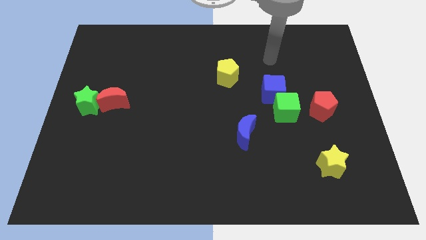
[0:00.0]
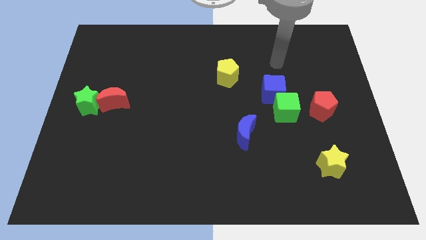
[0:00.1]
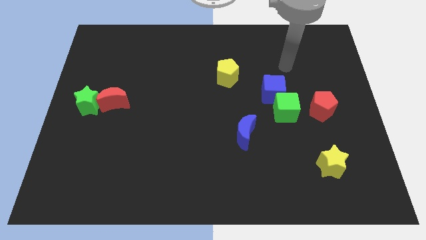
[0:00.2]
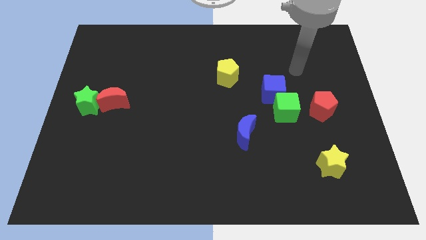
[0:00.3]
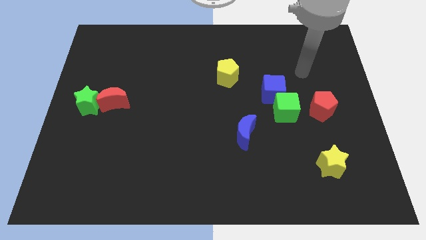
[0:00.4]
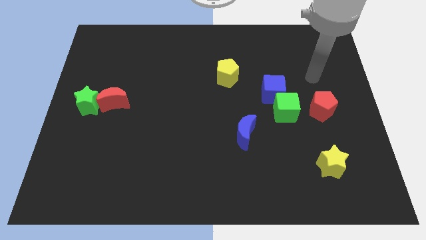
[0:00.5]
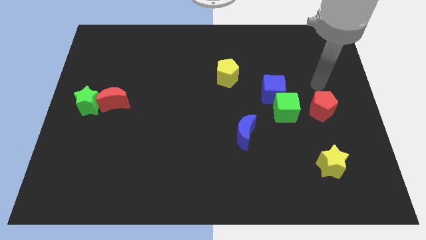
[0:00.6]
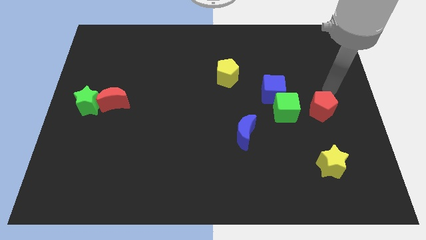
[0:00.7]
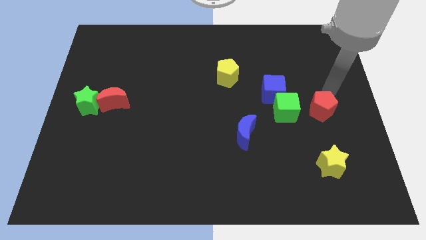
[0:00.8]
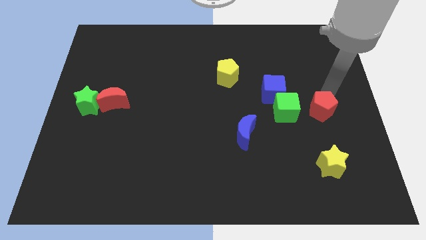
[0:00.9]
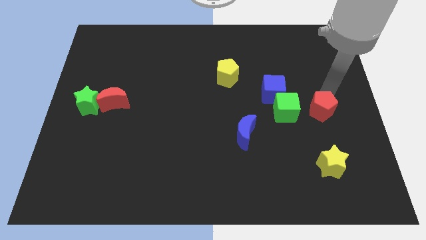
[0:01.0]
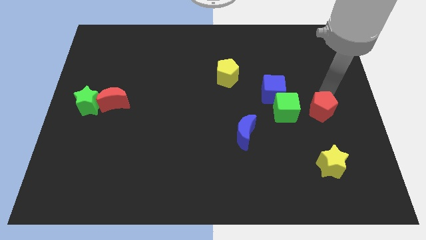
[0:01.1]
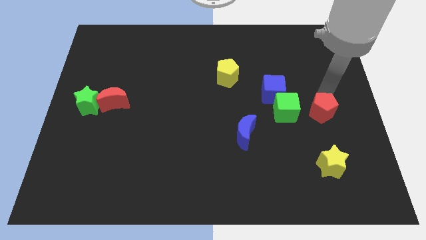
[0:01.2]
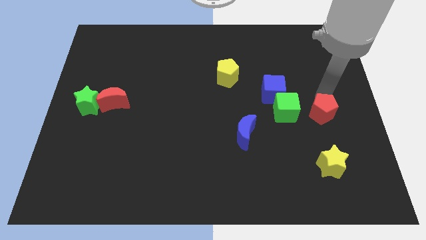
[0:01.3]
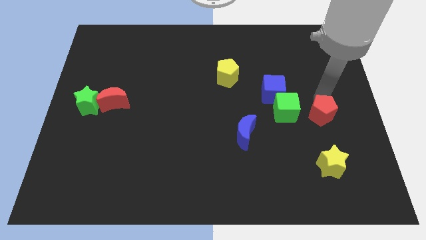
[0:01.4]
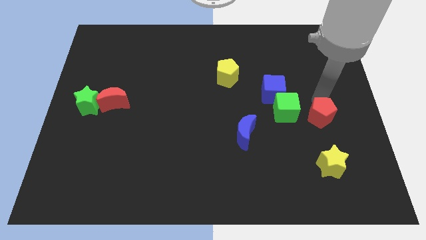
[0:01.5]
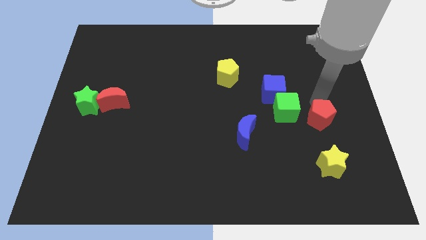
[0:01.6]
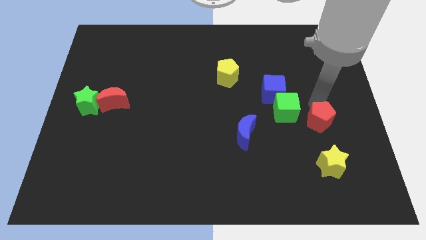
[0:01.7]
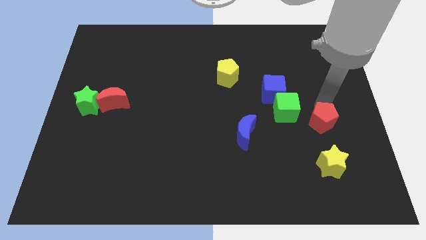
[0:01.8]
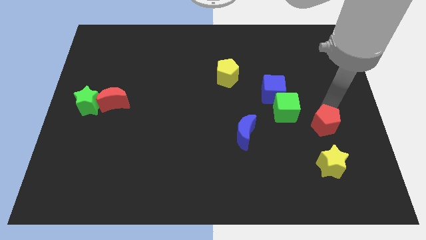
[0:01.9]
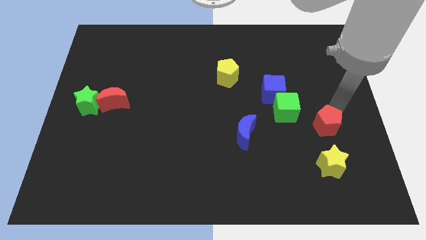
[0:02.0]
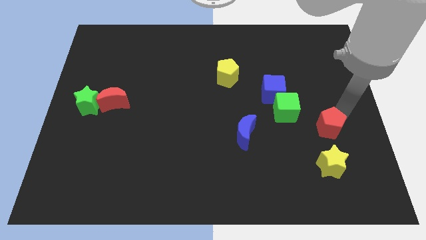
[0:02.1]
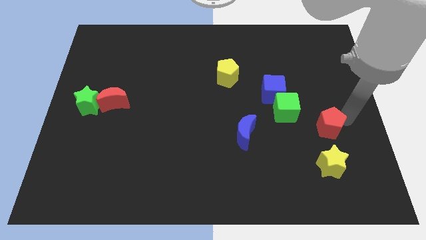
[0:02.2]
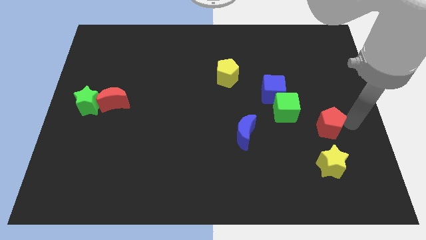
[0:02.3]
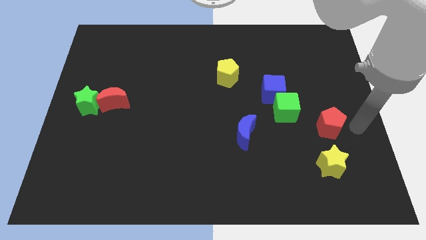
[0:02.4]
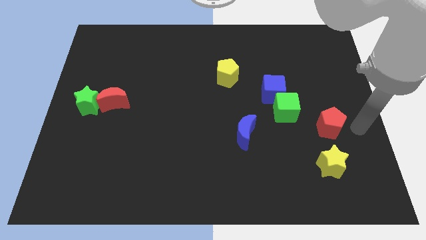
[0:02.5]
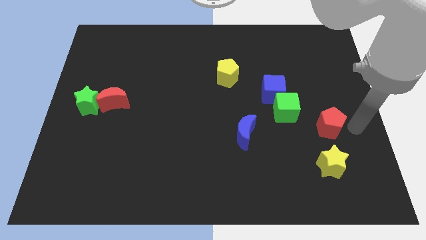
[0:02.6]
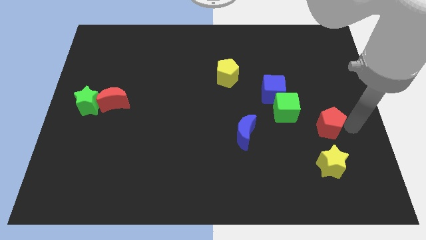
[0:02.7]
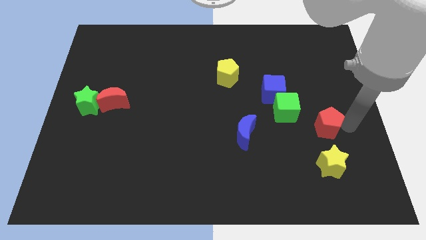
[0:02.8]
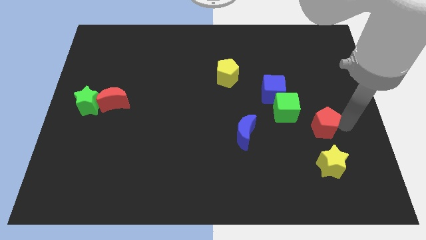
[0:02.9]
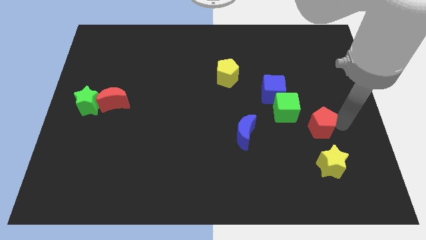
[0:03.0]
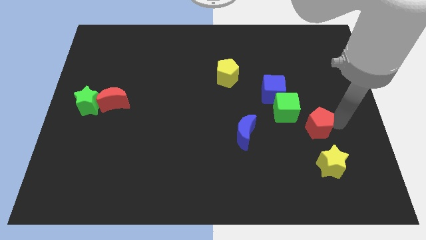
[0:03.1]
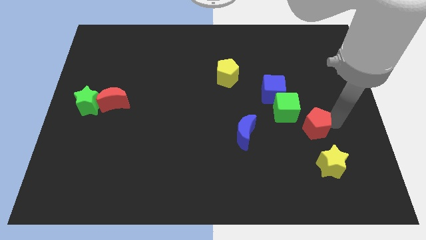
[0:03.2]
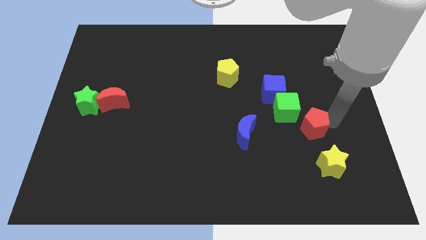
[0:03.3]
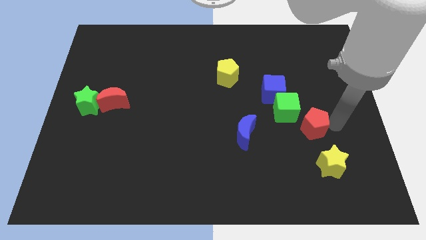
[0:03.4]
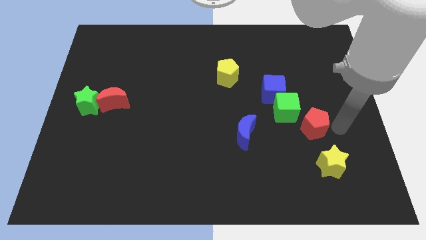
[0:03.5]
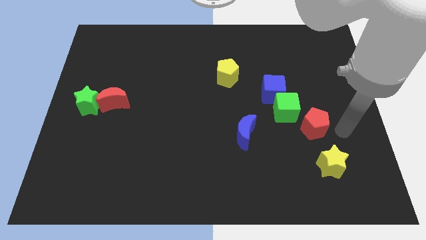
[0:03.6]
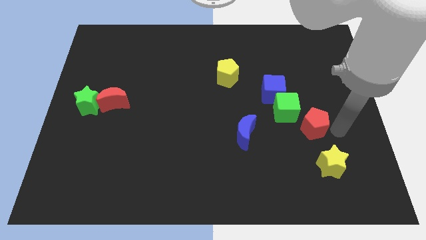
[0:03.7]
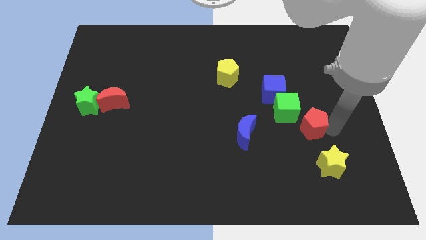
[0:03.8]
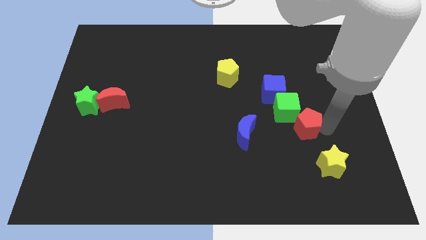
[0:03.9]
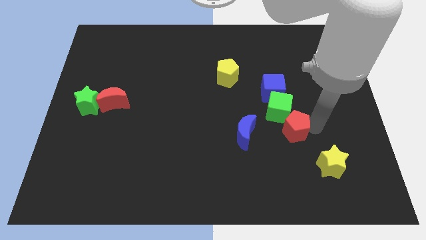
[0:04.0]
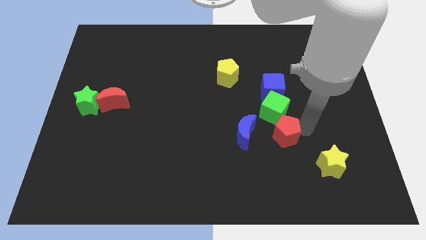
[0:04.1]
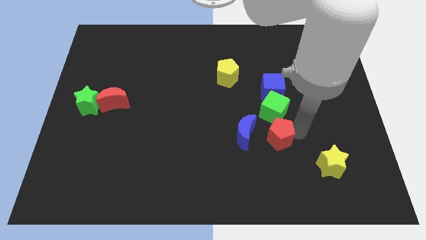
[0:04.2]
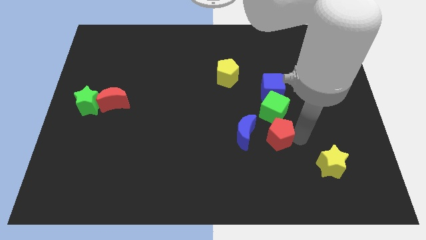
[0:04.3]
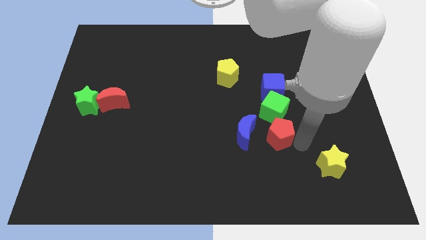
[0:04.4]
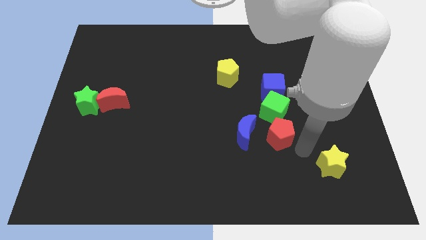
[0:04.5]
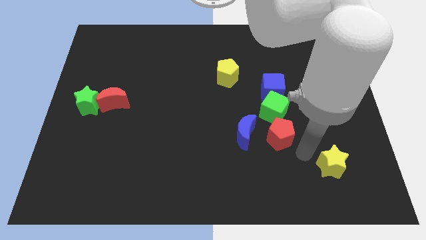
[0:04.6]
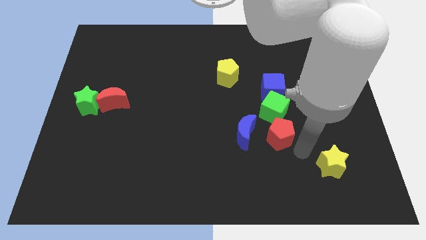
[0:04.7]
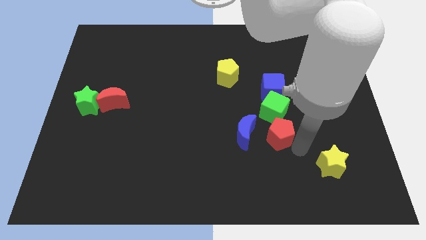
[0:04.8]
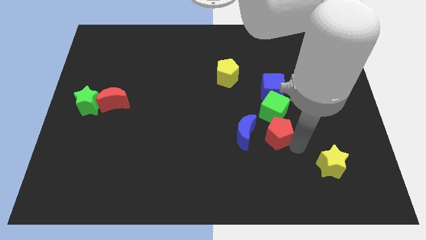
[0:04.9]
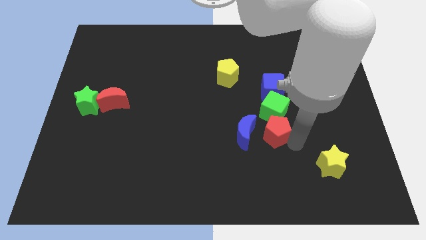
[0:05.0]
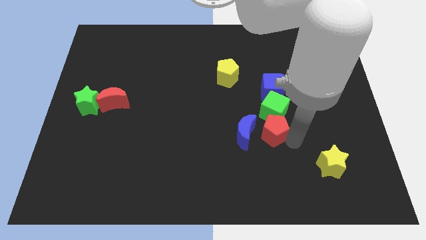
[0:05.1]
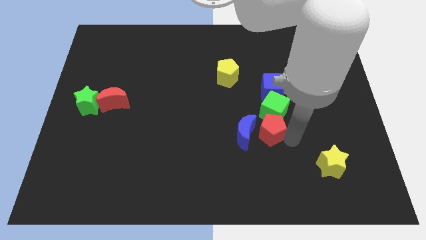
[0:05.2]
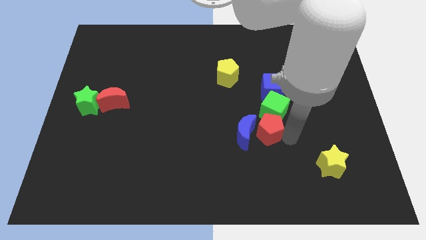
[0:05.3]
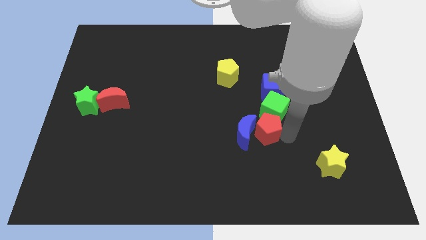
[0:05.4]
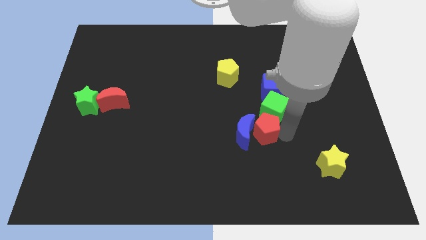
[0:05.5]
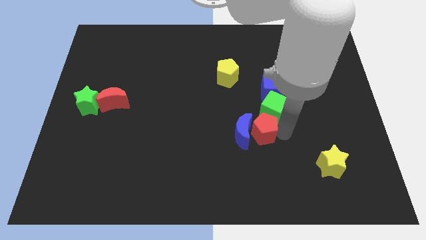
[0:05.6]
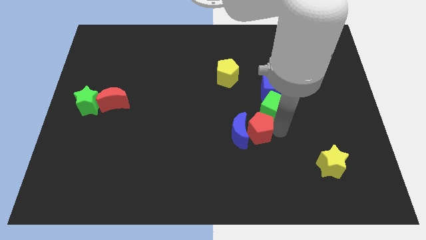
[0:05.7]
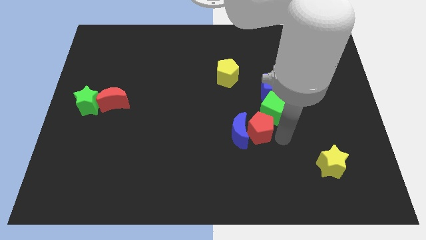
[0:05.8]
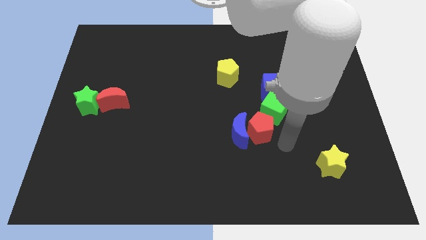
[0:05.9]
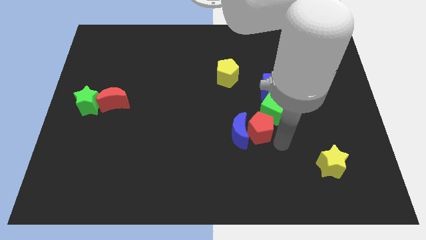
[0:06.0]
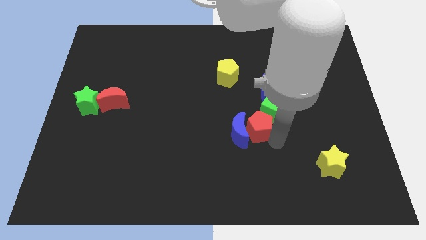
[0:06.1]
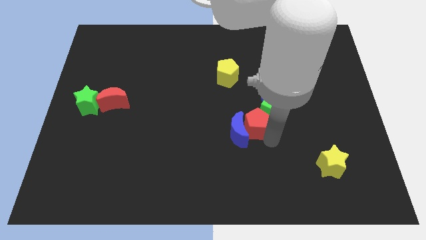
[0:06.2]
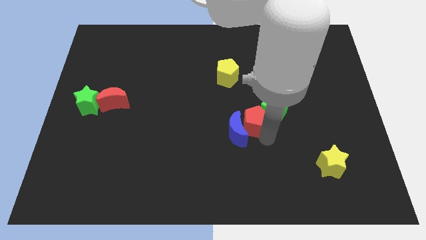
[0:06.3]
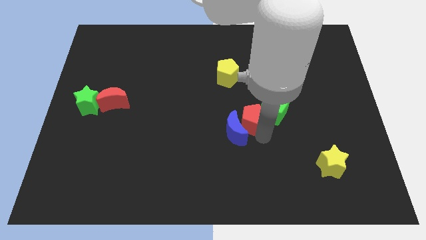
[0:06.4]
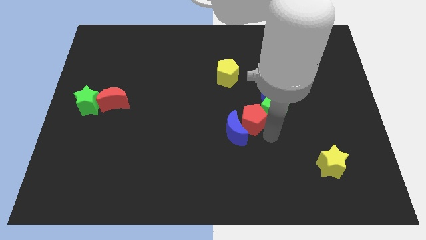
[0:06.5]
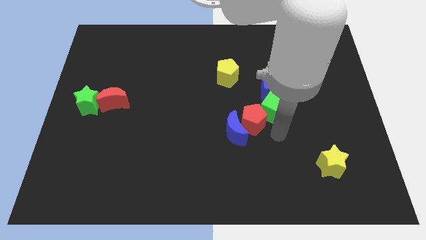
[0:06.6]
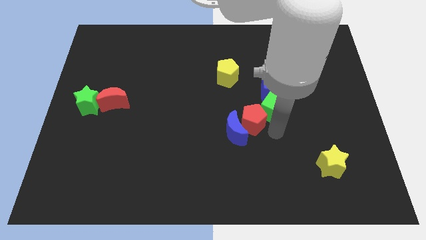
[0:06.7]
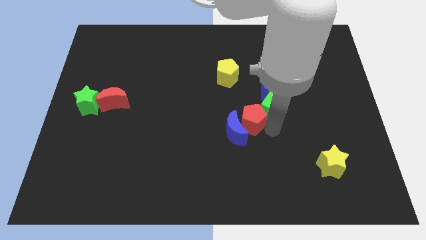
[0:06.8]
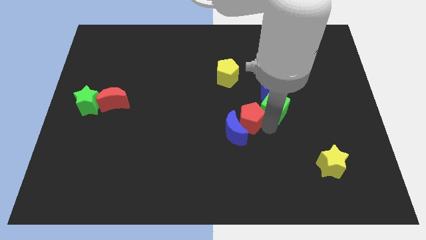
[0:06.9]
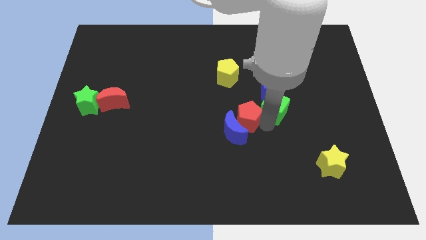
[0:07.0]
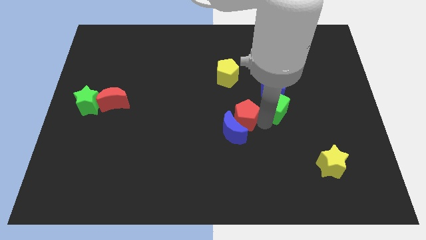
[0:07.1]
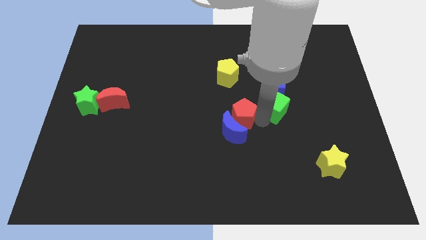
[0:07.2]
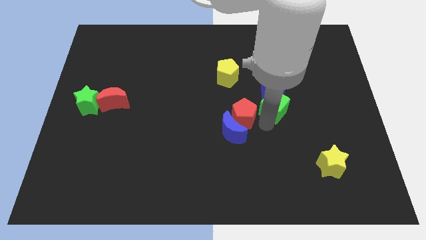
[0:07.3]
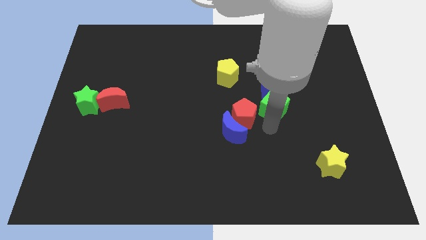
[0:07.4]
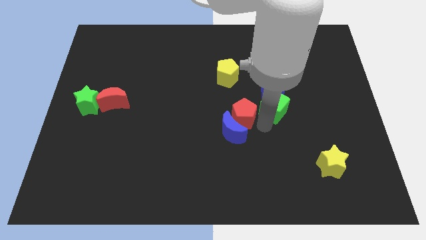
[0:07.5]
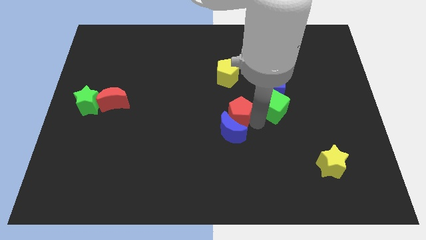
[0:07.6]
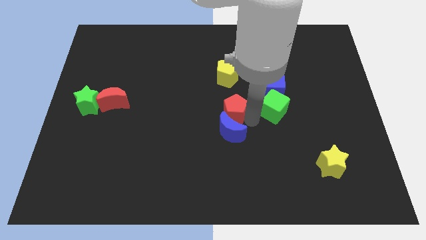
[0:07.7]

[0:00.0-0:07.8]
push the red pentagon left
